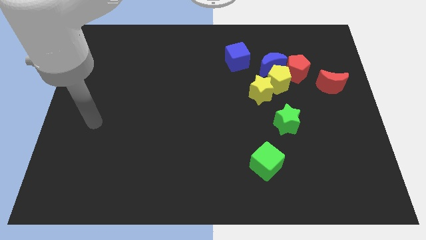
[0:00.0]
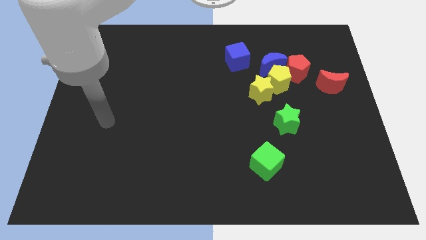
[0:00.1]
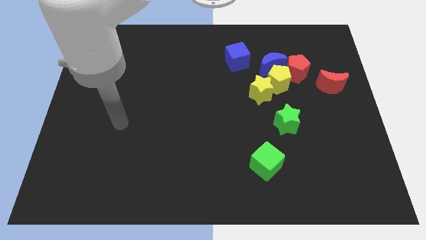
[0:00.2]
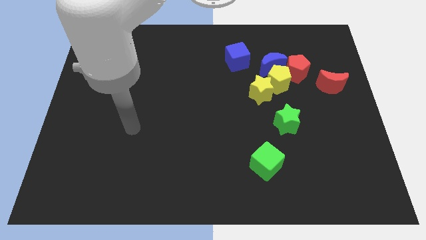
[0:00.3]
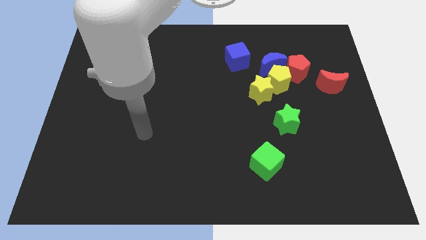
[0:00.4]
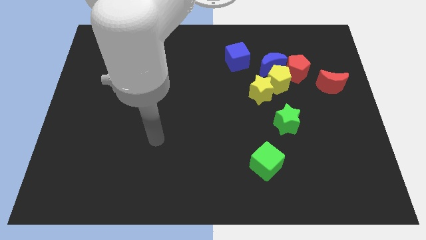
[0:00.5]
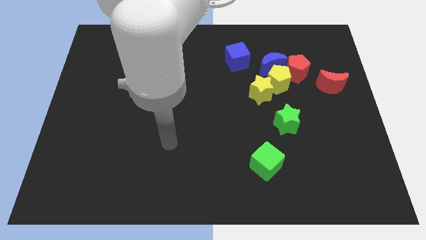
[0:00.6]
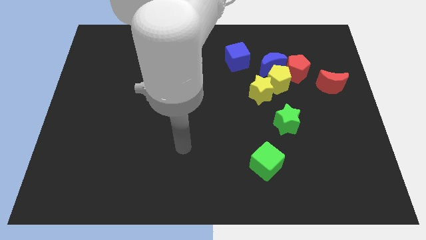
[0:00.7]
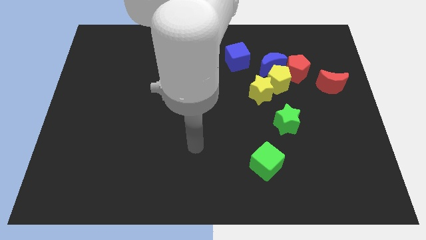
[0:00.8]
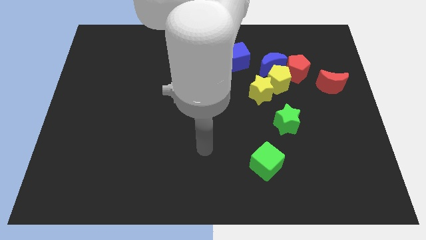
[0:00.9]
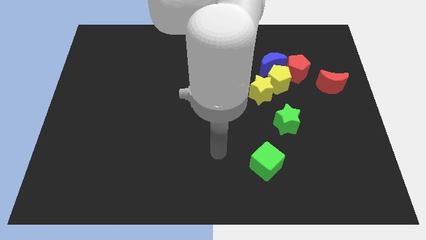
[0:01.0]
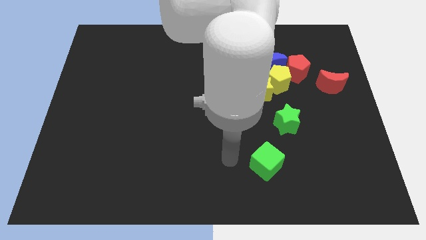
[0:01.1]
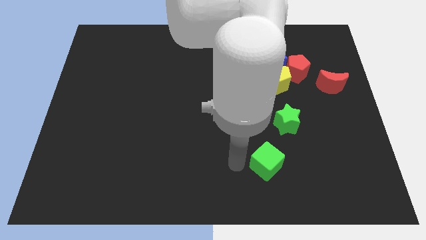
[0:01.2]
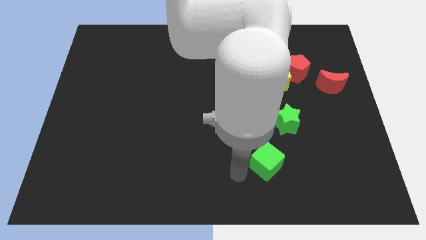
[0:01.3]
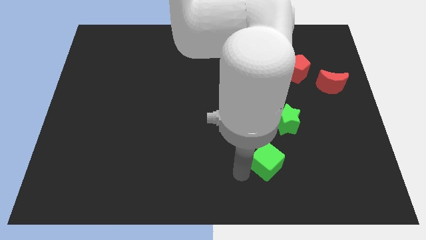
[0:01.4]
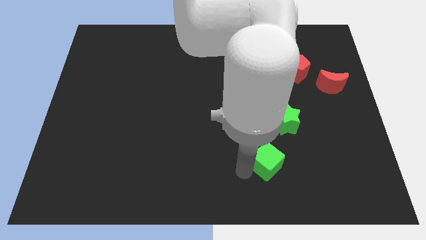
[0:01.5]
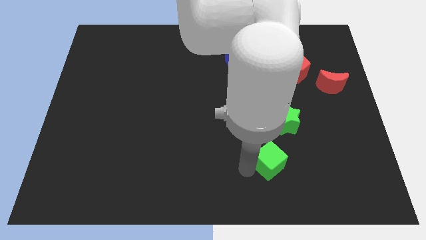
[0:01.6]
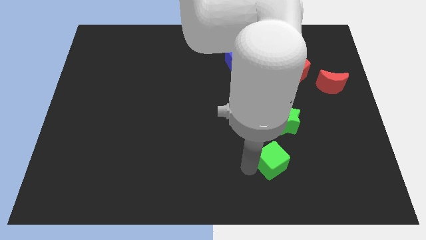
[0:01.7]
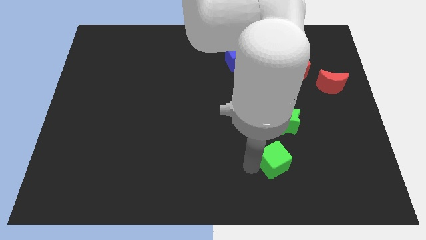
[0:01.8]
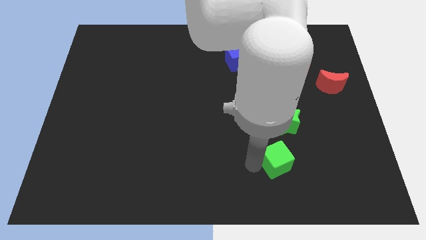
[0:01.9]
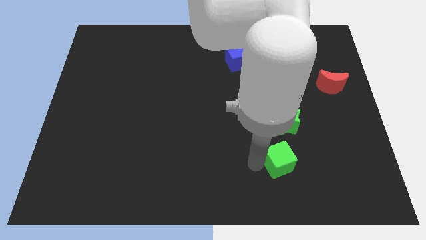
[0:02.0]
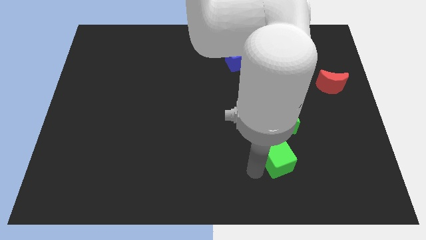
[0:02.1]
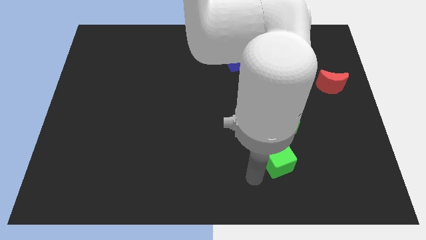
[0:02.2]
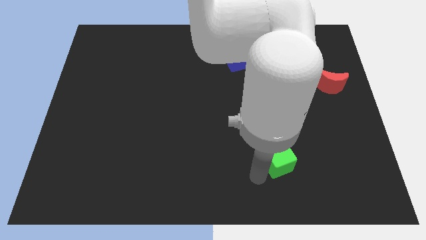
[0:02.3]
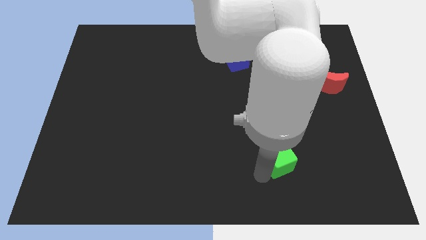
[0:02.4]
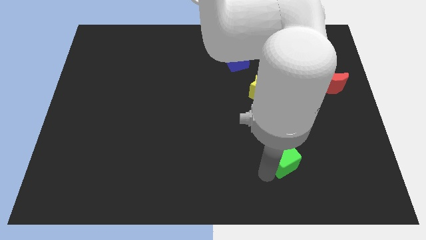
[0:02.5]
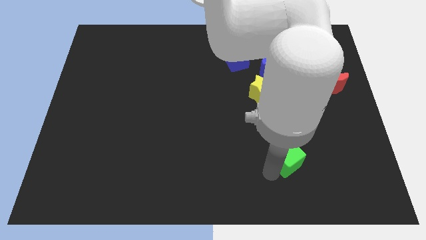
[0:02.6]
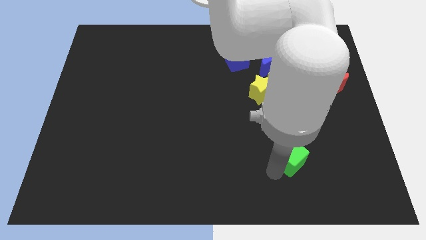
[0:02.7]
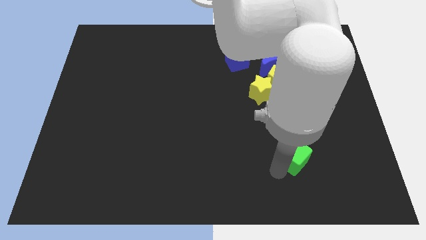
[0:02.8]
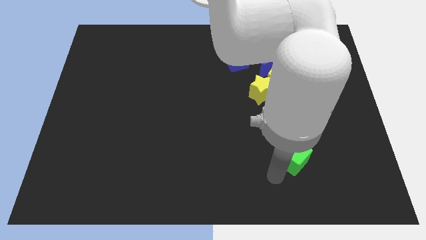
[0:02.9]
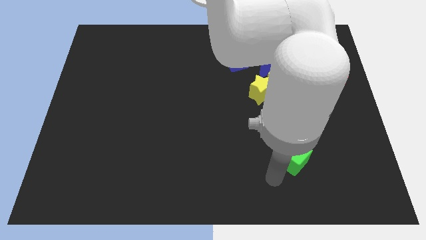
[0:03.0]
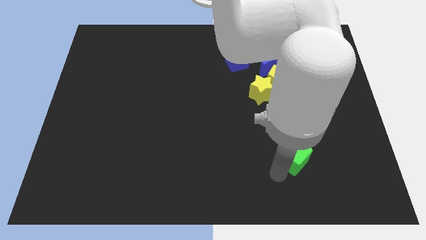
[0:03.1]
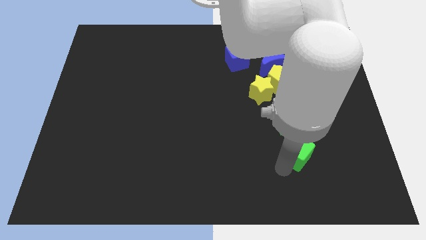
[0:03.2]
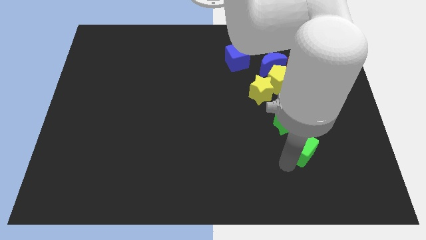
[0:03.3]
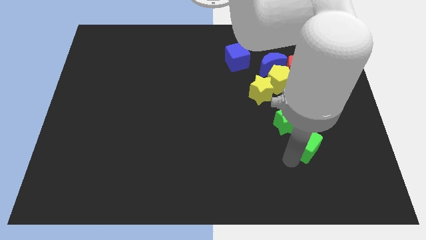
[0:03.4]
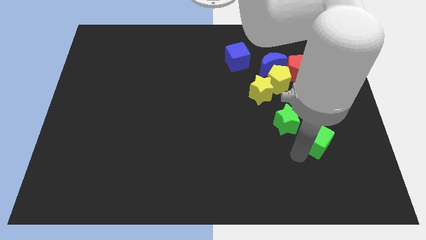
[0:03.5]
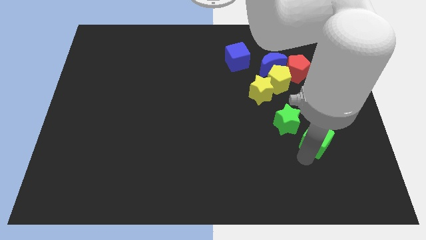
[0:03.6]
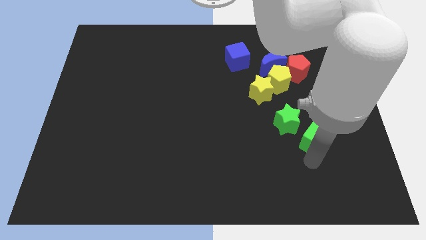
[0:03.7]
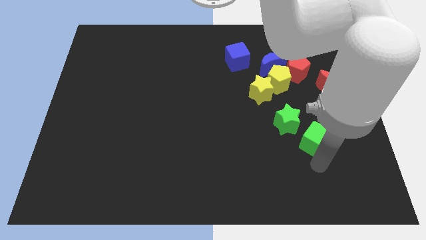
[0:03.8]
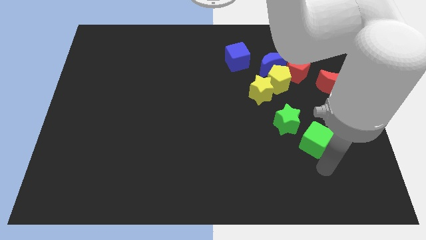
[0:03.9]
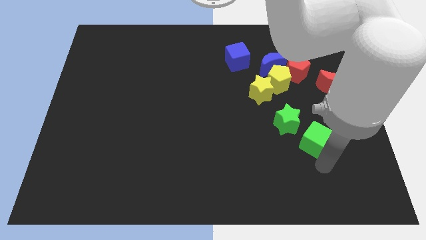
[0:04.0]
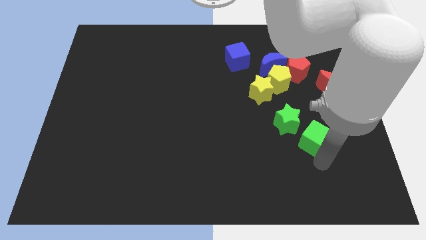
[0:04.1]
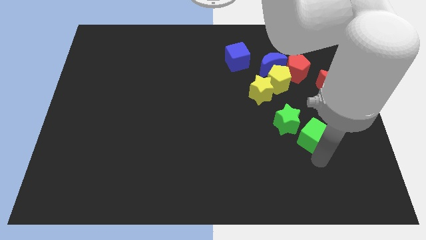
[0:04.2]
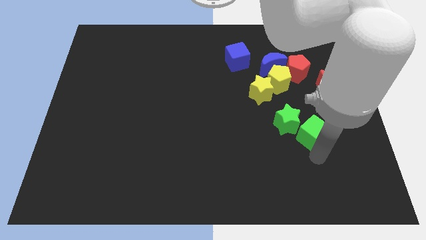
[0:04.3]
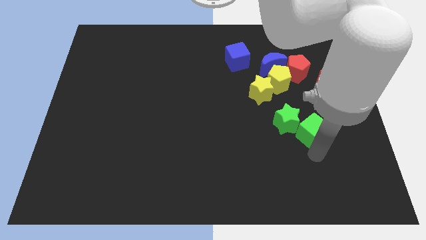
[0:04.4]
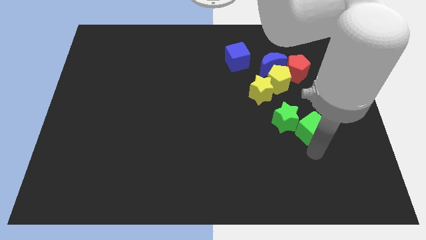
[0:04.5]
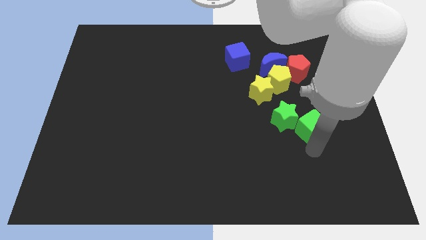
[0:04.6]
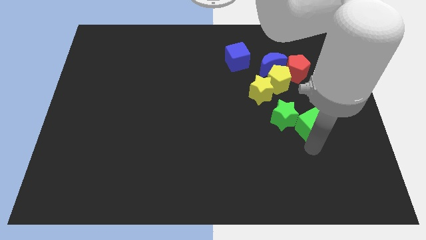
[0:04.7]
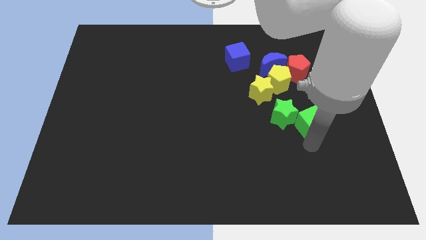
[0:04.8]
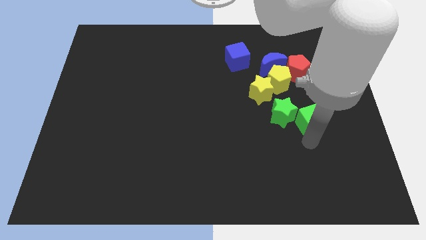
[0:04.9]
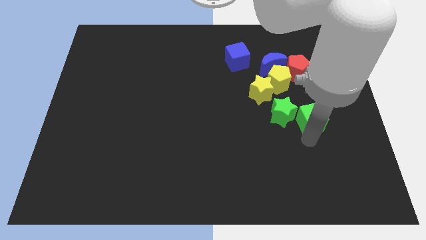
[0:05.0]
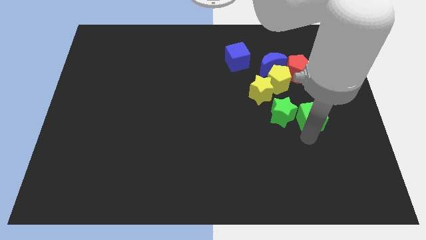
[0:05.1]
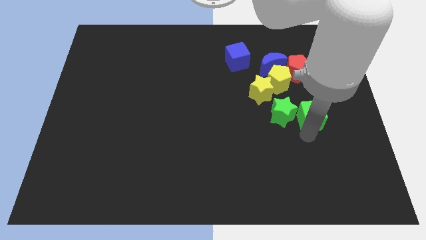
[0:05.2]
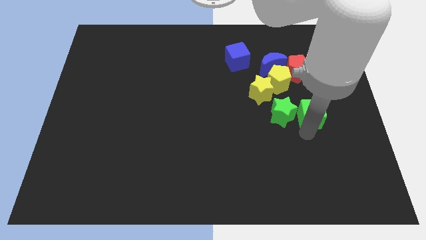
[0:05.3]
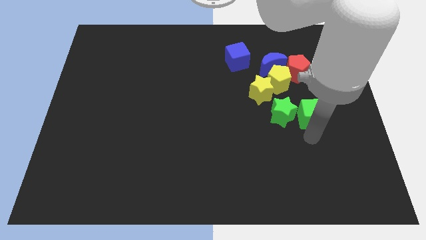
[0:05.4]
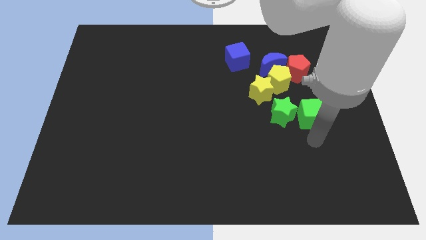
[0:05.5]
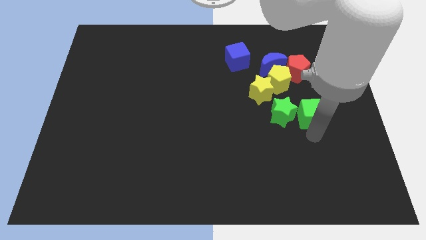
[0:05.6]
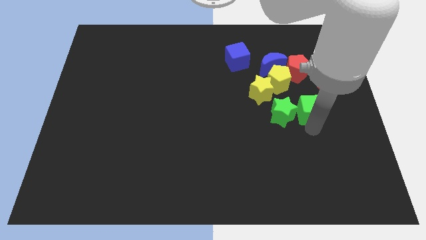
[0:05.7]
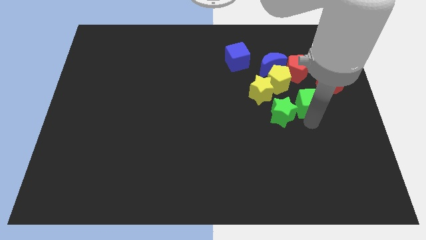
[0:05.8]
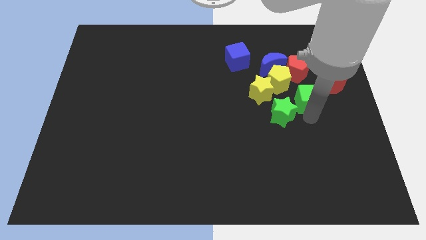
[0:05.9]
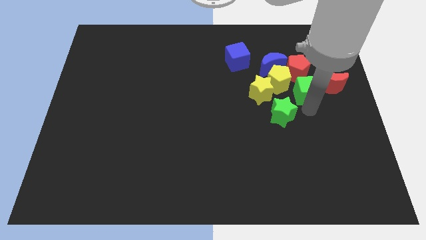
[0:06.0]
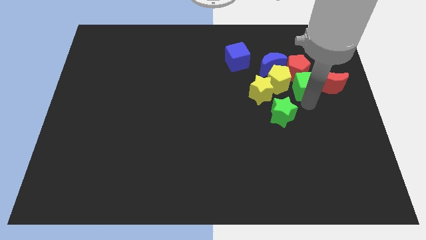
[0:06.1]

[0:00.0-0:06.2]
move the green cube next to the red pentagon
